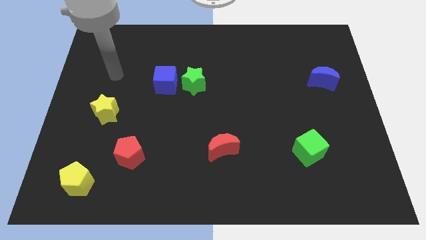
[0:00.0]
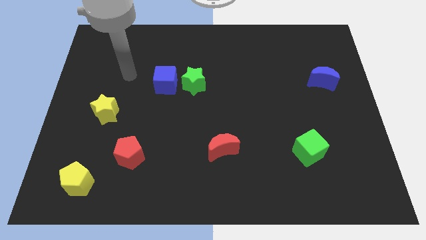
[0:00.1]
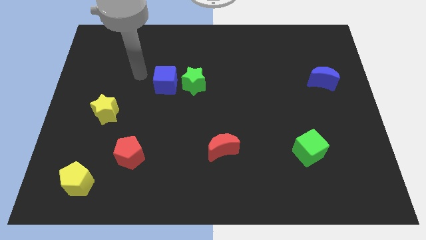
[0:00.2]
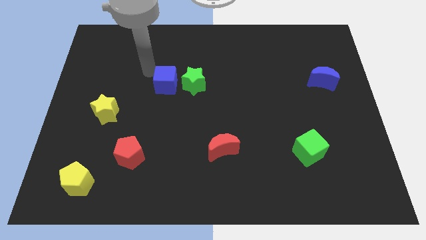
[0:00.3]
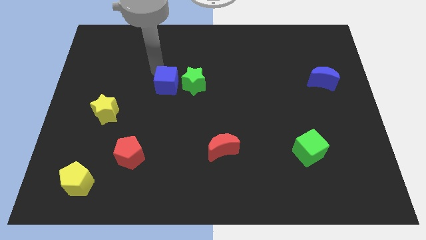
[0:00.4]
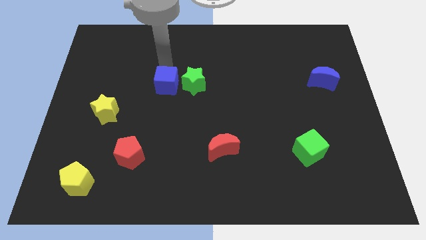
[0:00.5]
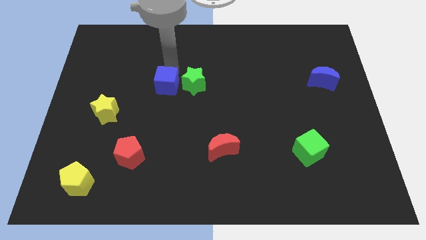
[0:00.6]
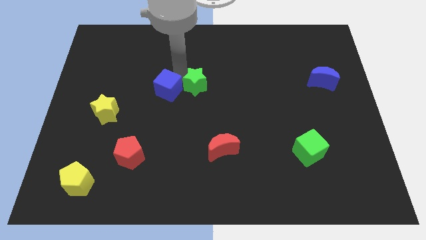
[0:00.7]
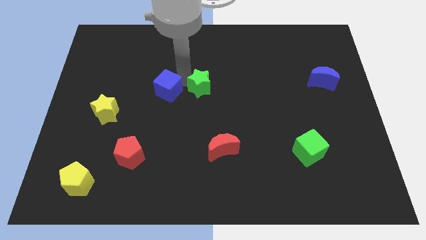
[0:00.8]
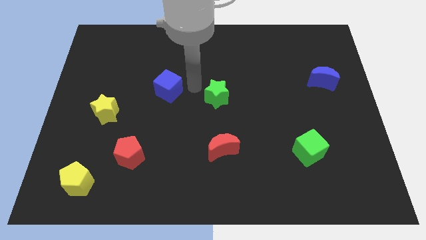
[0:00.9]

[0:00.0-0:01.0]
move the blue cube away from the green star

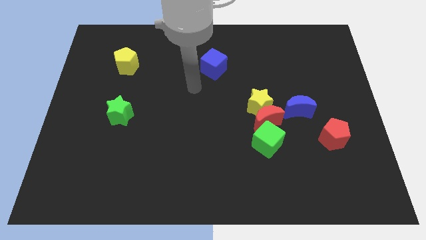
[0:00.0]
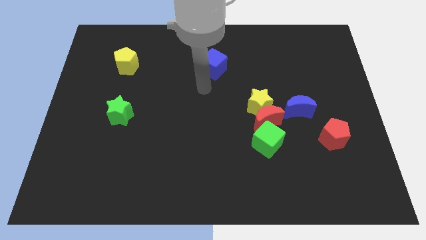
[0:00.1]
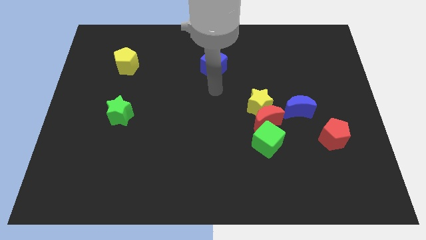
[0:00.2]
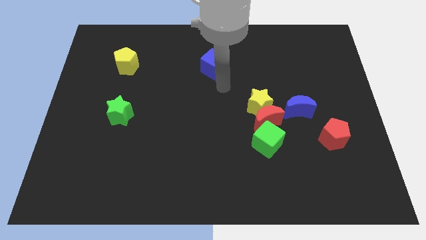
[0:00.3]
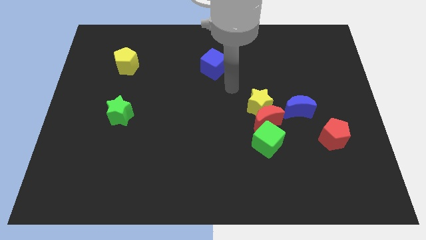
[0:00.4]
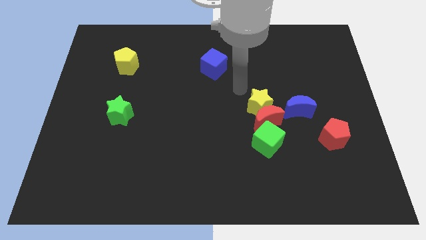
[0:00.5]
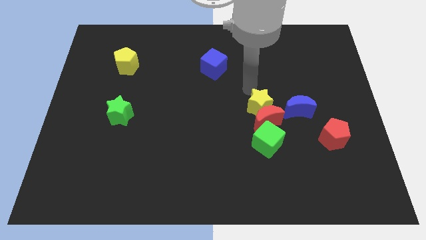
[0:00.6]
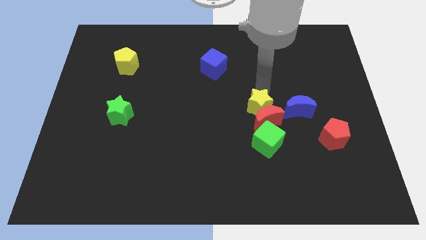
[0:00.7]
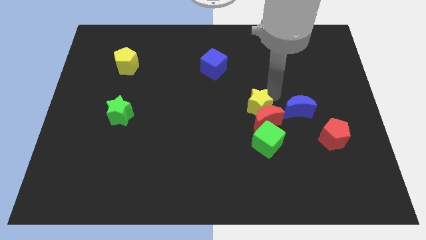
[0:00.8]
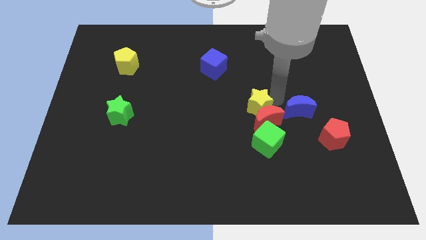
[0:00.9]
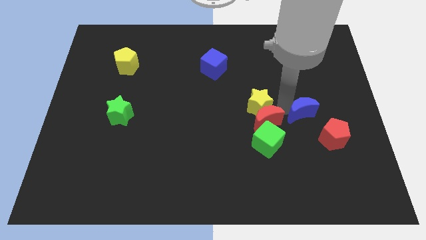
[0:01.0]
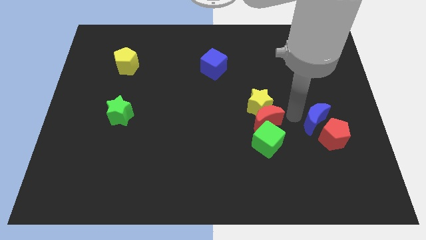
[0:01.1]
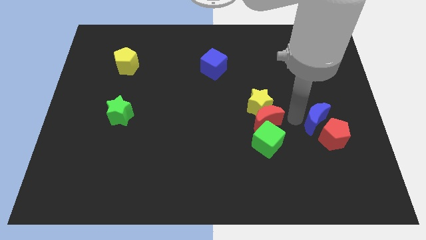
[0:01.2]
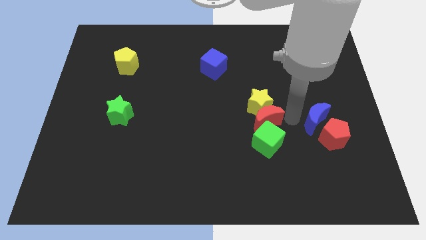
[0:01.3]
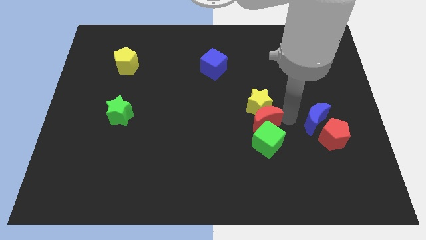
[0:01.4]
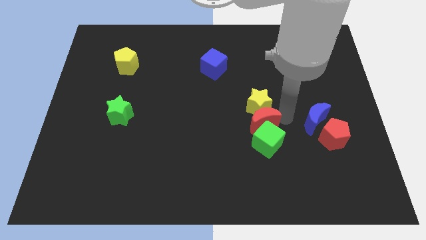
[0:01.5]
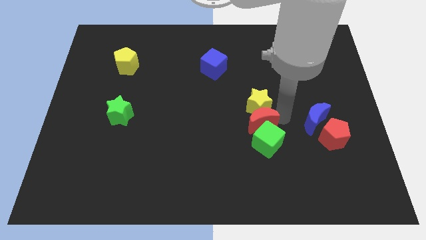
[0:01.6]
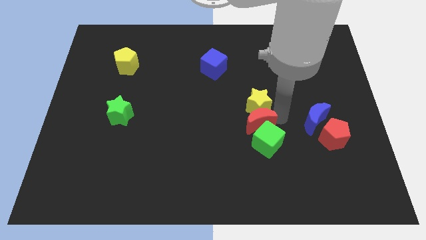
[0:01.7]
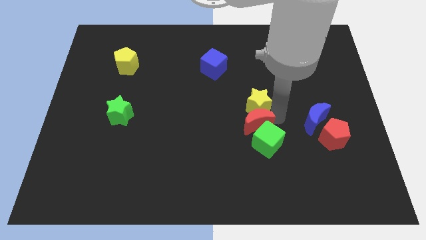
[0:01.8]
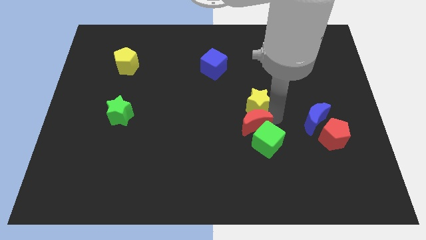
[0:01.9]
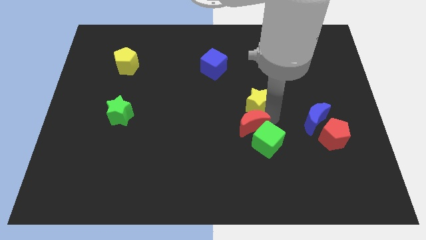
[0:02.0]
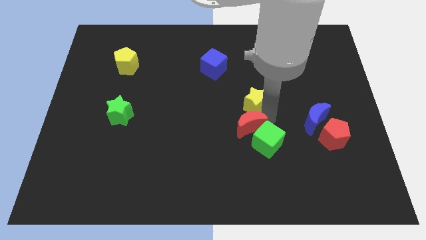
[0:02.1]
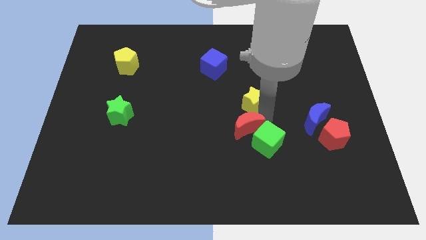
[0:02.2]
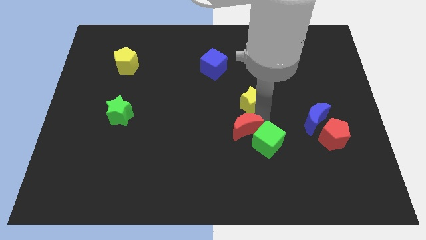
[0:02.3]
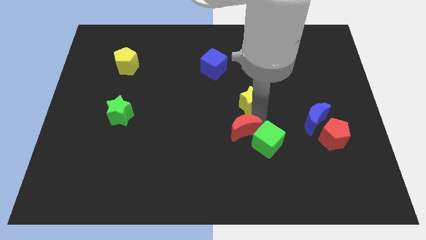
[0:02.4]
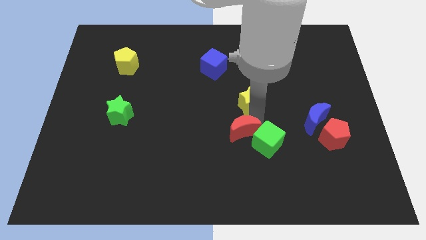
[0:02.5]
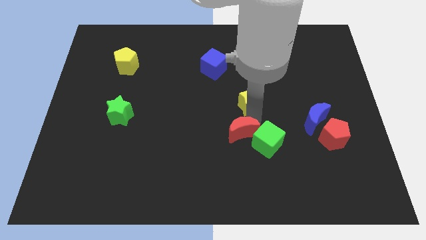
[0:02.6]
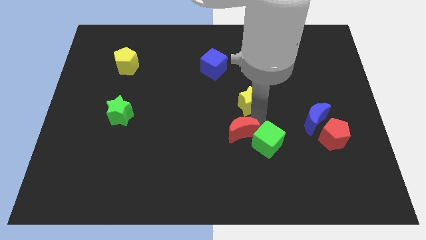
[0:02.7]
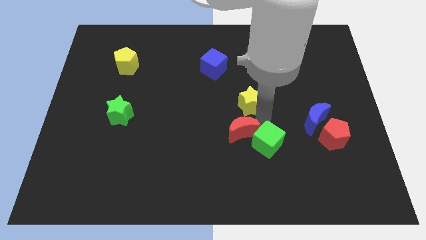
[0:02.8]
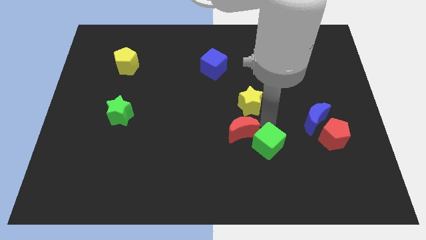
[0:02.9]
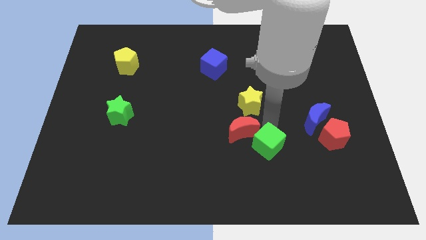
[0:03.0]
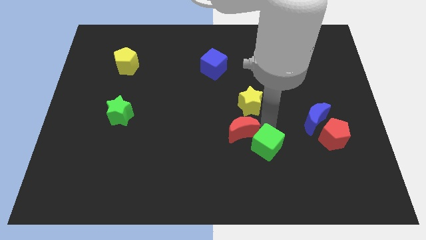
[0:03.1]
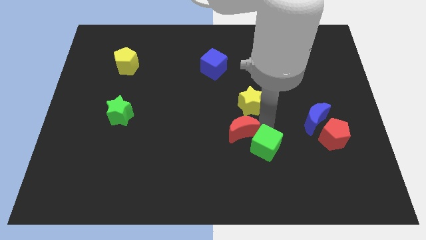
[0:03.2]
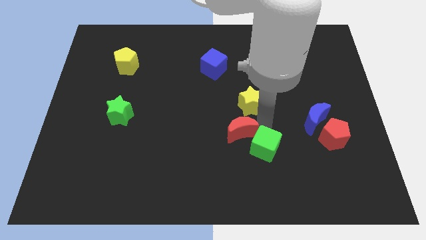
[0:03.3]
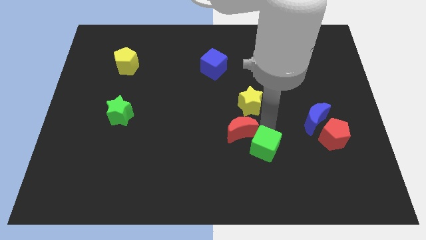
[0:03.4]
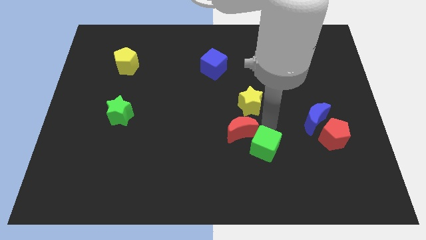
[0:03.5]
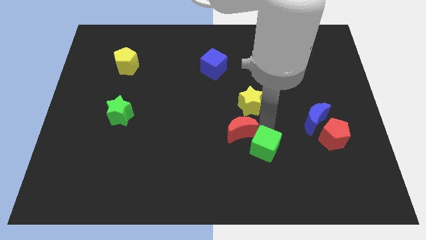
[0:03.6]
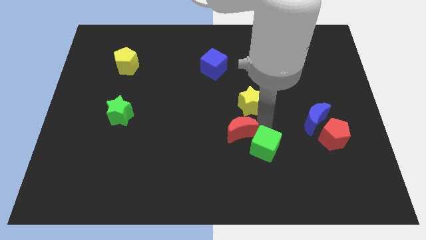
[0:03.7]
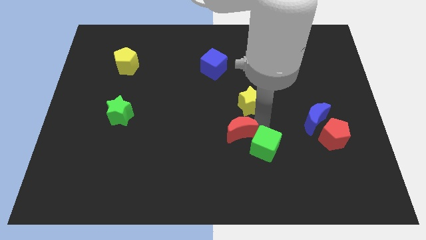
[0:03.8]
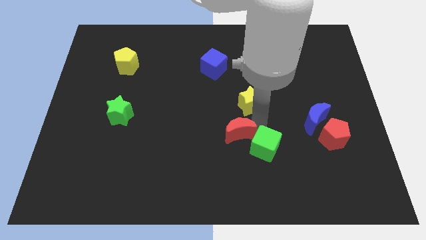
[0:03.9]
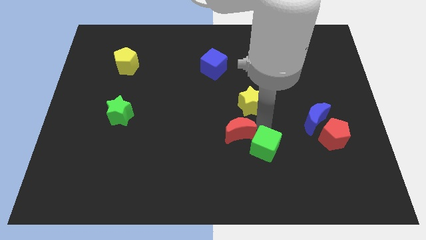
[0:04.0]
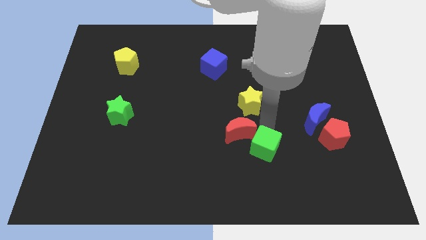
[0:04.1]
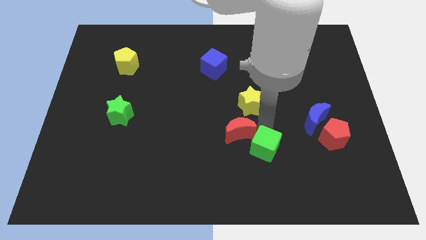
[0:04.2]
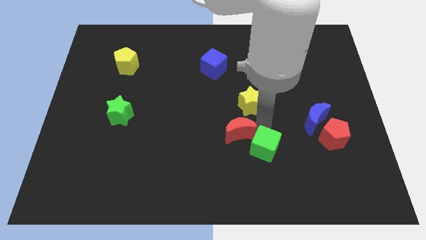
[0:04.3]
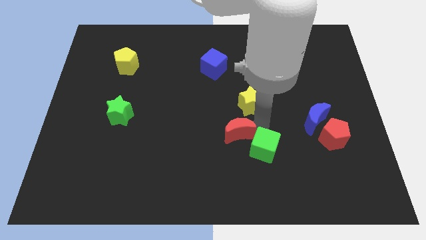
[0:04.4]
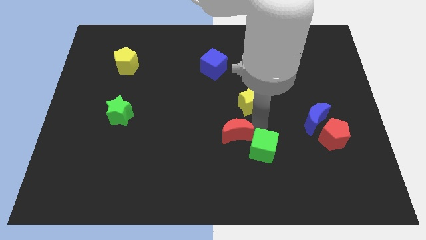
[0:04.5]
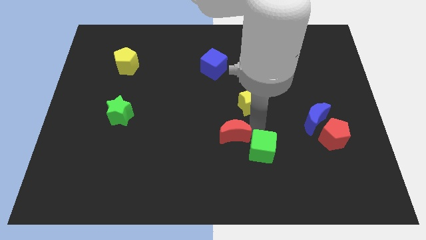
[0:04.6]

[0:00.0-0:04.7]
separate the red moon from the group

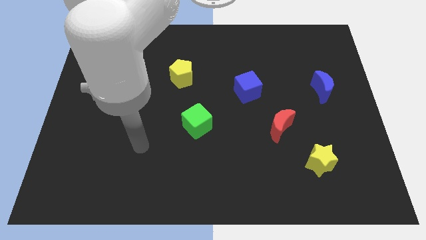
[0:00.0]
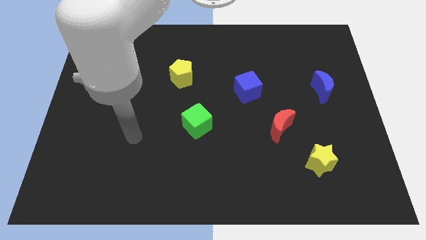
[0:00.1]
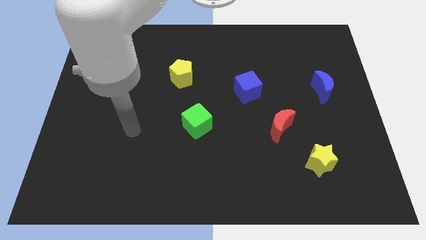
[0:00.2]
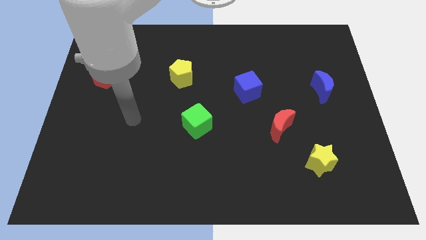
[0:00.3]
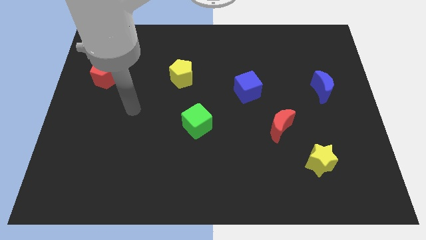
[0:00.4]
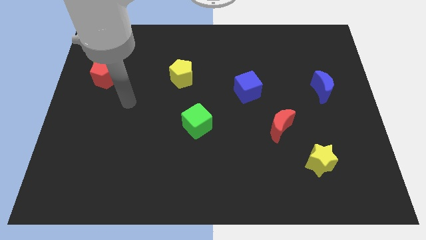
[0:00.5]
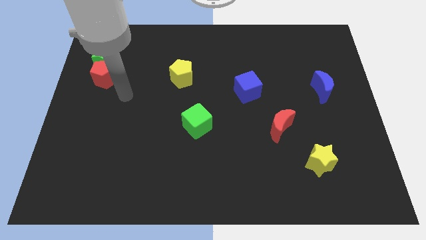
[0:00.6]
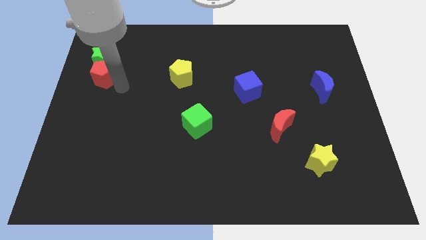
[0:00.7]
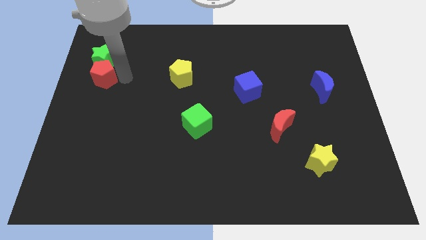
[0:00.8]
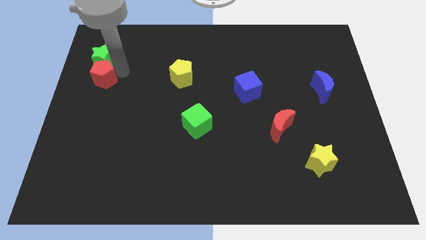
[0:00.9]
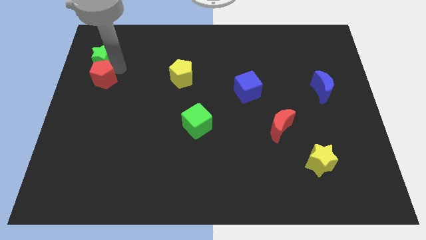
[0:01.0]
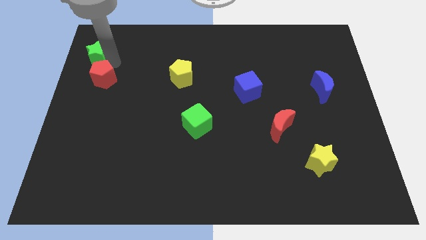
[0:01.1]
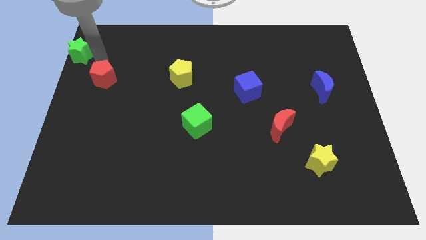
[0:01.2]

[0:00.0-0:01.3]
pull the red pentagon apart from the green star

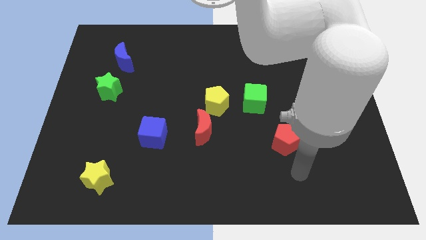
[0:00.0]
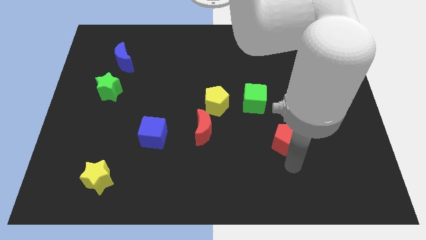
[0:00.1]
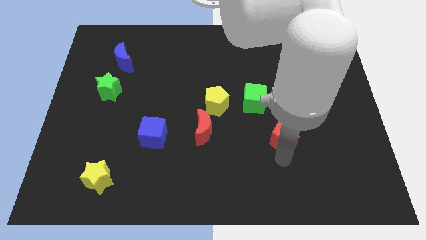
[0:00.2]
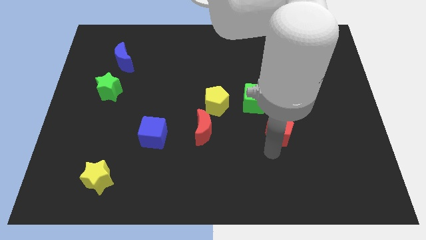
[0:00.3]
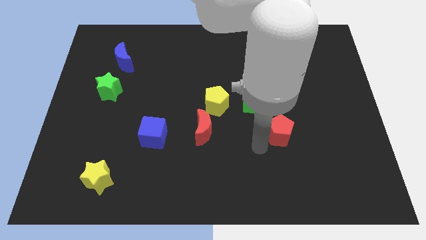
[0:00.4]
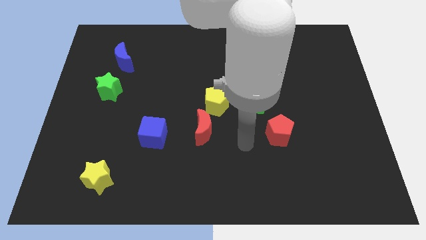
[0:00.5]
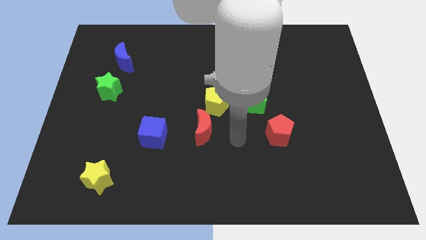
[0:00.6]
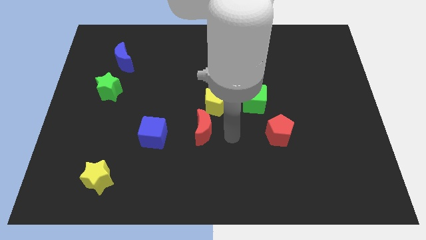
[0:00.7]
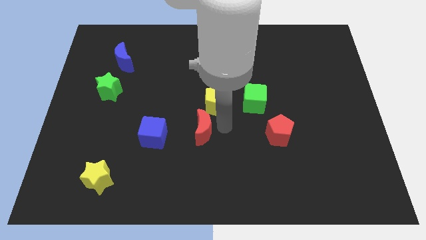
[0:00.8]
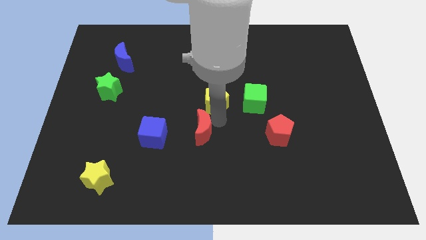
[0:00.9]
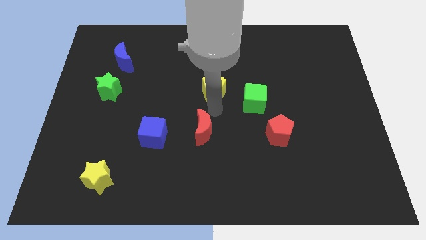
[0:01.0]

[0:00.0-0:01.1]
move the red moon away from the yellow pentagon

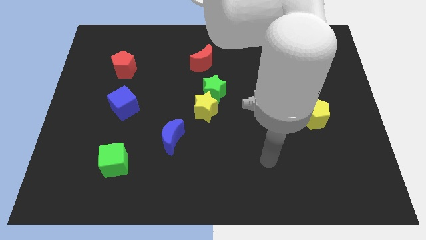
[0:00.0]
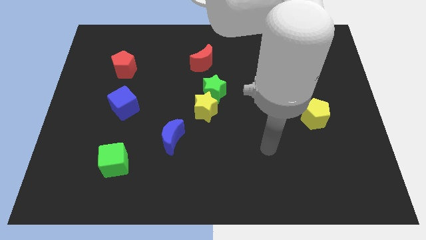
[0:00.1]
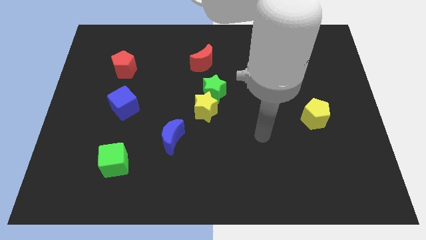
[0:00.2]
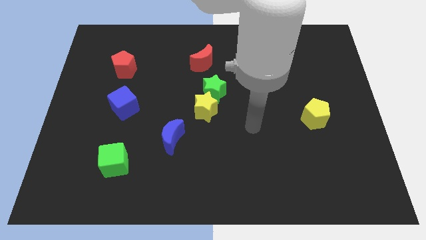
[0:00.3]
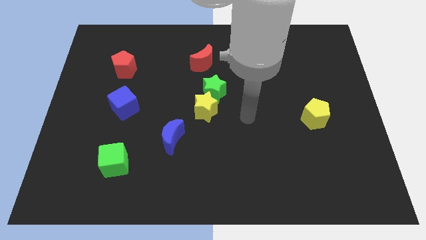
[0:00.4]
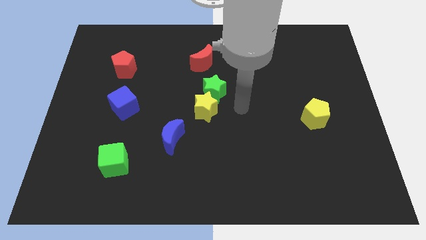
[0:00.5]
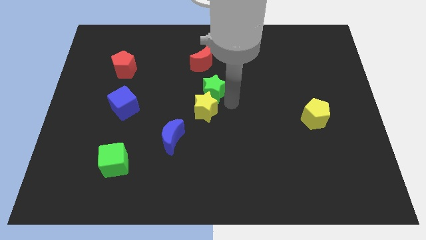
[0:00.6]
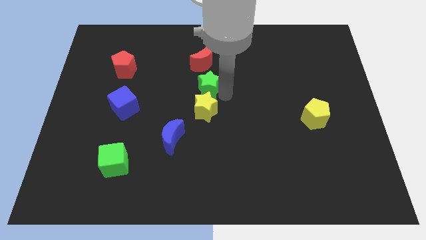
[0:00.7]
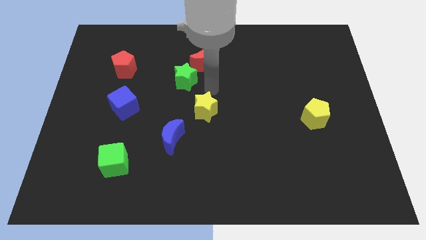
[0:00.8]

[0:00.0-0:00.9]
move the yellow star away from the green star

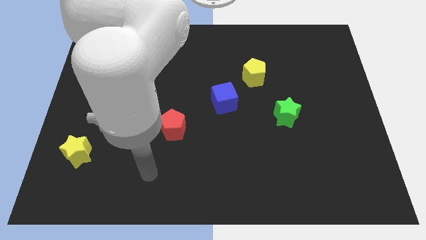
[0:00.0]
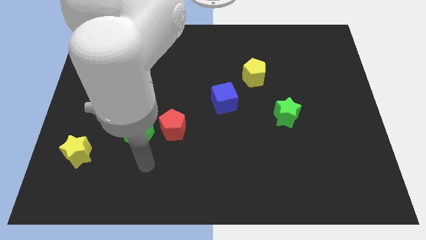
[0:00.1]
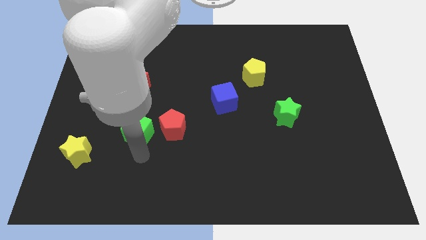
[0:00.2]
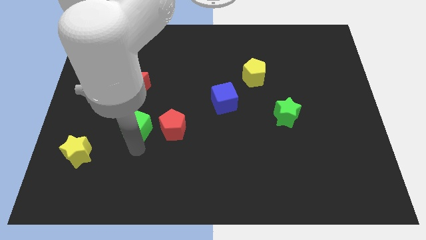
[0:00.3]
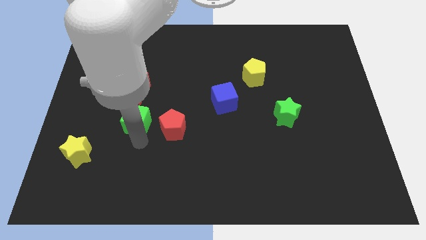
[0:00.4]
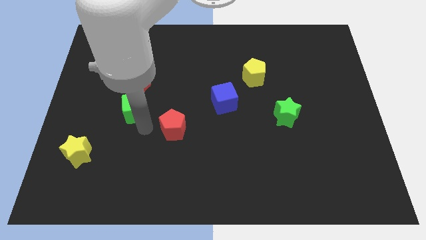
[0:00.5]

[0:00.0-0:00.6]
pull the red pentagon apart from the green cube
